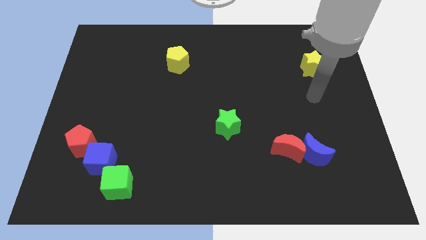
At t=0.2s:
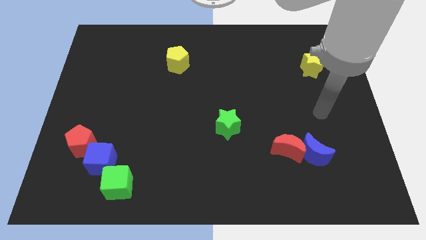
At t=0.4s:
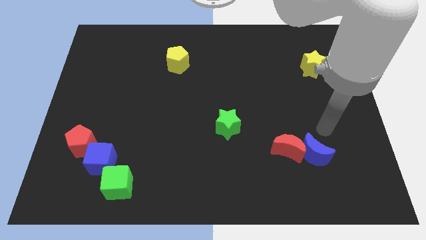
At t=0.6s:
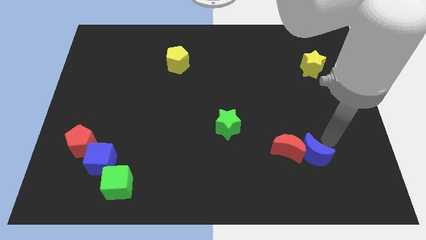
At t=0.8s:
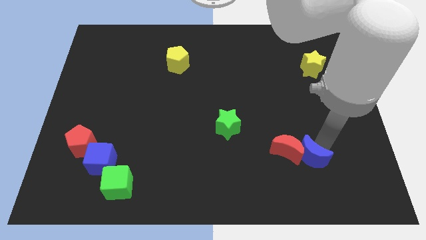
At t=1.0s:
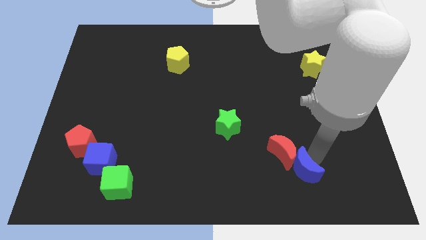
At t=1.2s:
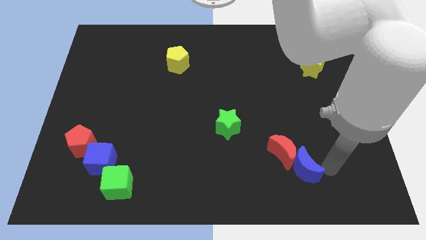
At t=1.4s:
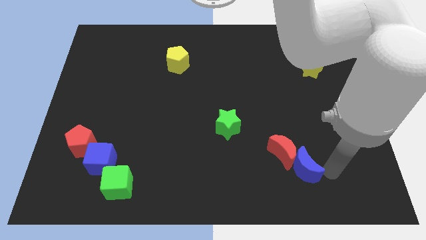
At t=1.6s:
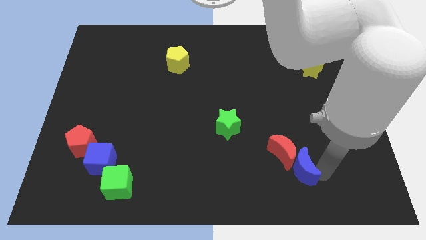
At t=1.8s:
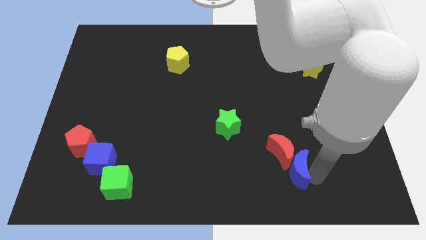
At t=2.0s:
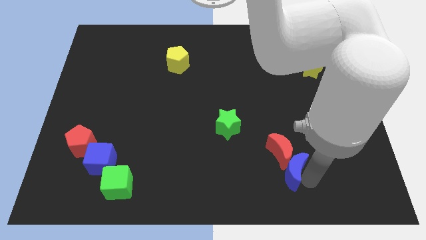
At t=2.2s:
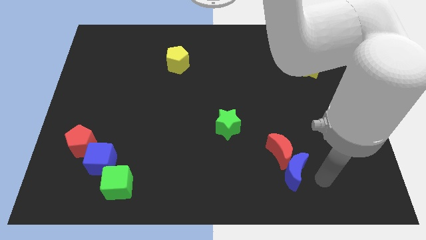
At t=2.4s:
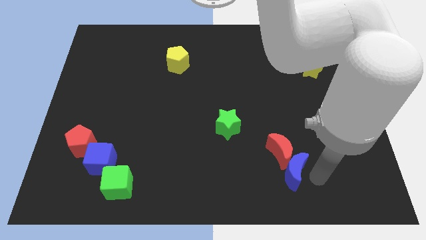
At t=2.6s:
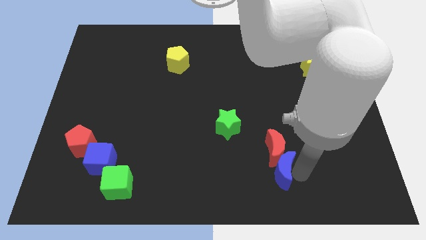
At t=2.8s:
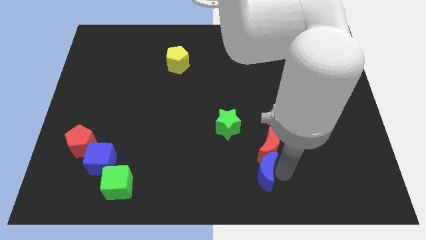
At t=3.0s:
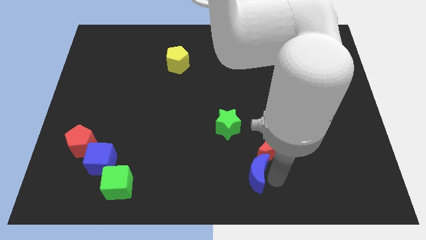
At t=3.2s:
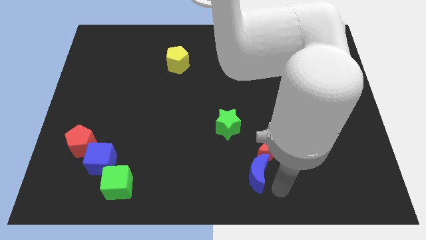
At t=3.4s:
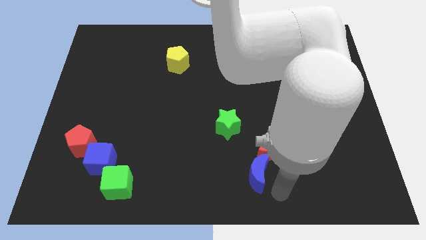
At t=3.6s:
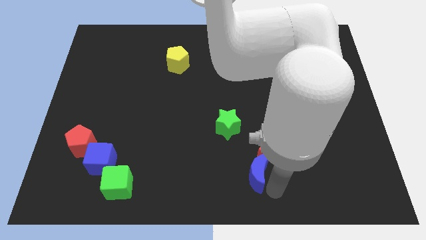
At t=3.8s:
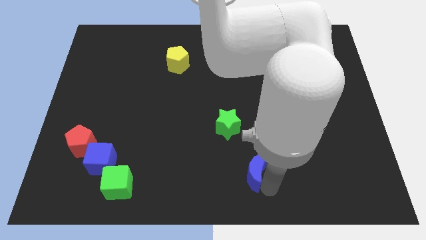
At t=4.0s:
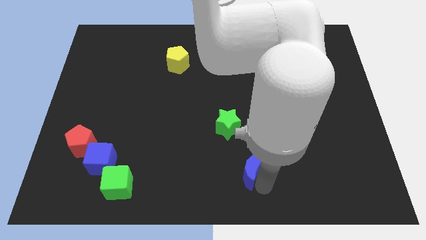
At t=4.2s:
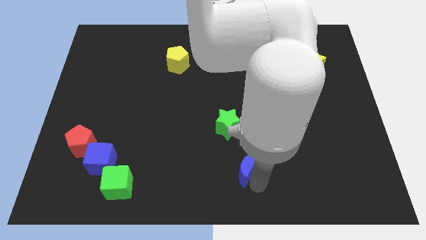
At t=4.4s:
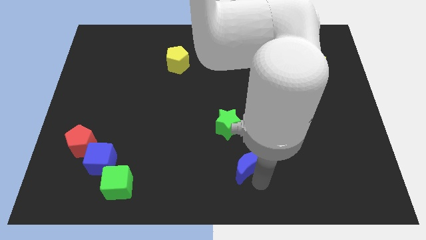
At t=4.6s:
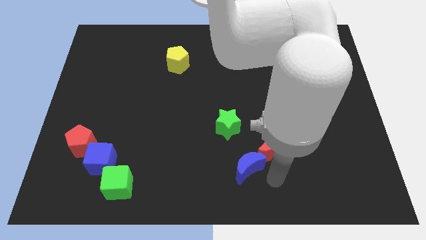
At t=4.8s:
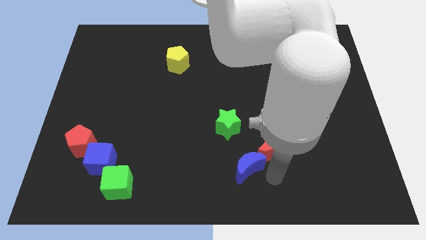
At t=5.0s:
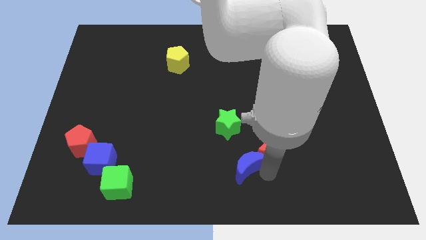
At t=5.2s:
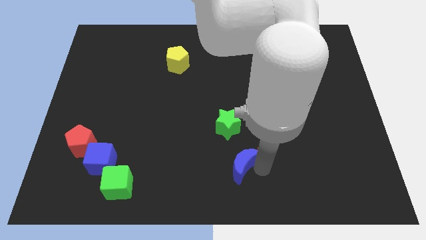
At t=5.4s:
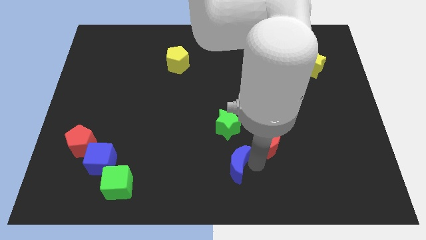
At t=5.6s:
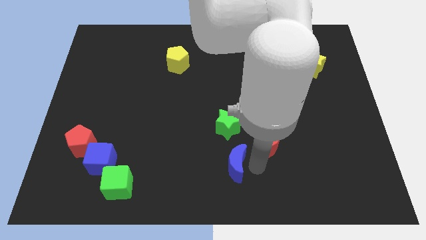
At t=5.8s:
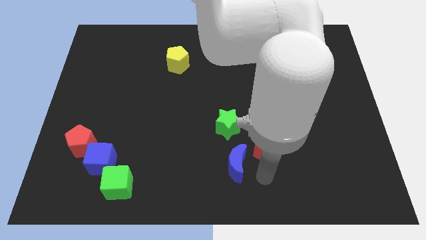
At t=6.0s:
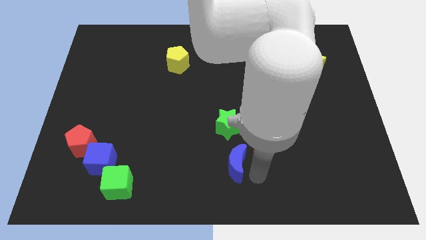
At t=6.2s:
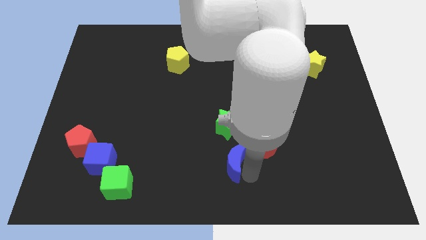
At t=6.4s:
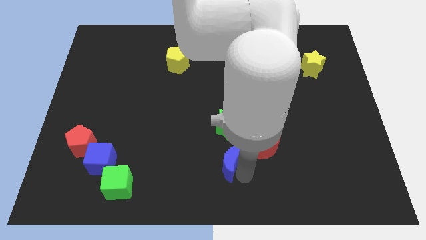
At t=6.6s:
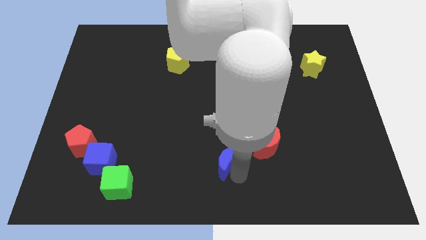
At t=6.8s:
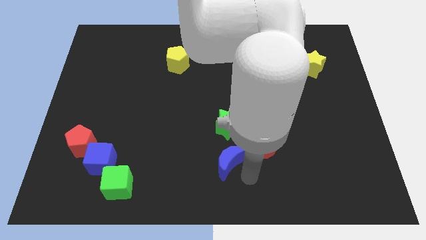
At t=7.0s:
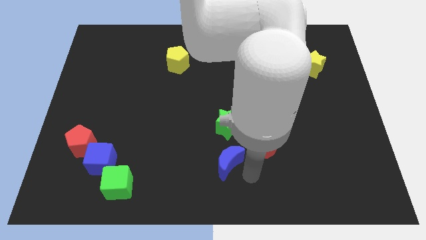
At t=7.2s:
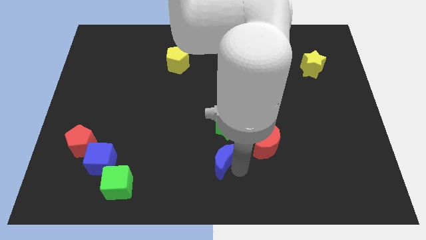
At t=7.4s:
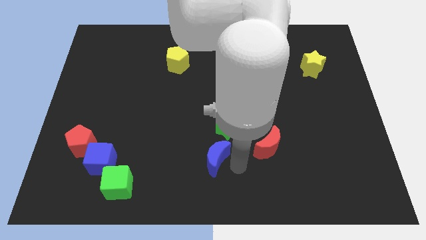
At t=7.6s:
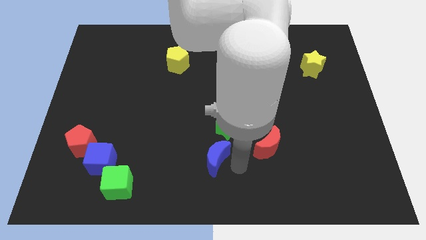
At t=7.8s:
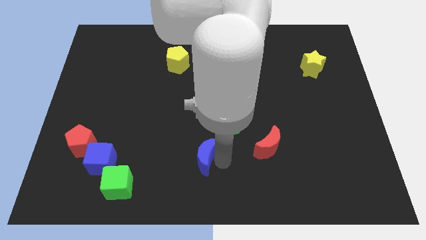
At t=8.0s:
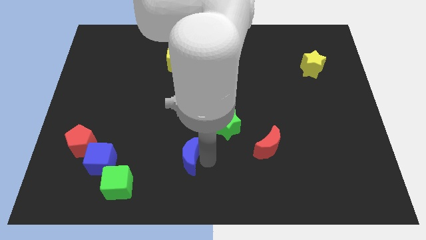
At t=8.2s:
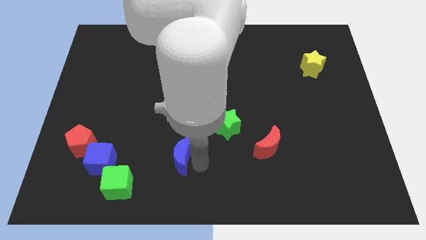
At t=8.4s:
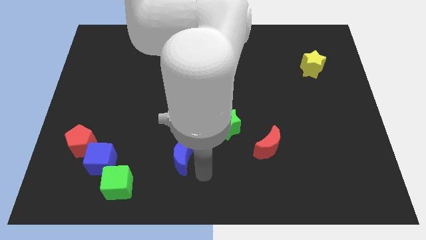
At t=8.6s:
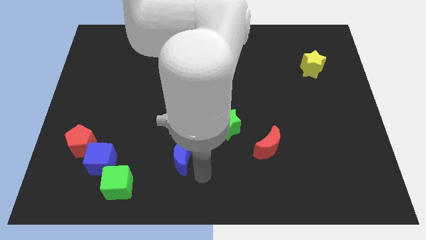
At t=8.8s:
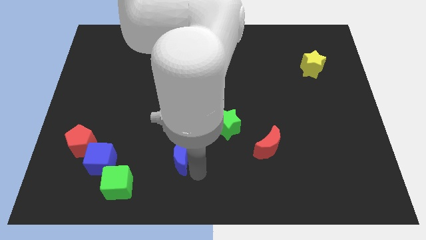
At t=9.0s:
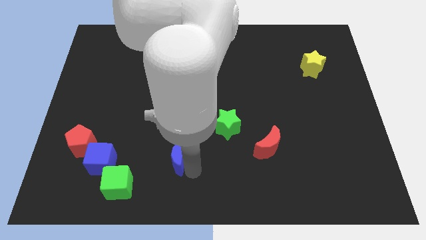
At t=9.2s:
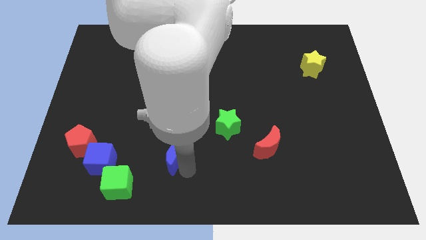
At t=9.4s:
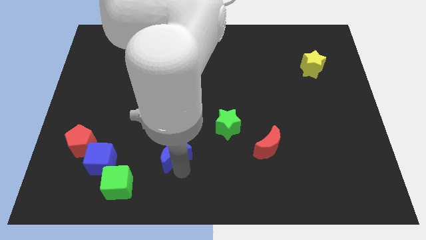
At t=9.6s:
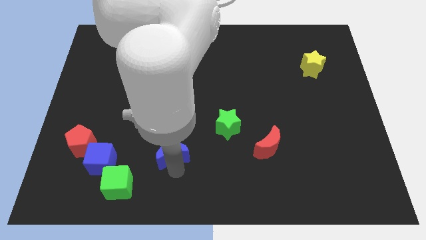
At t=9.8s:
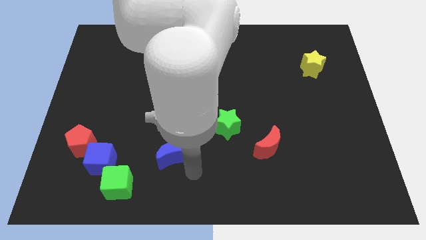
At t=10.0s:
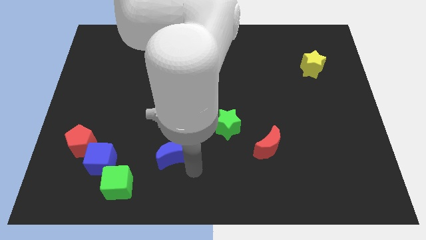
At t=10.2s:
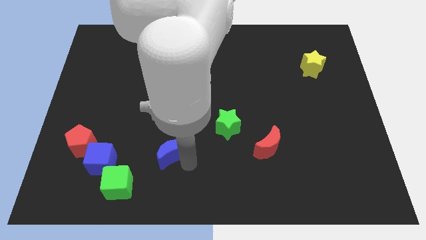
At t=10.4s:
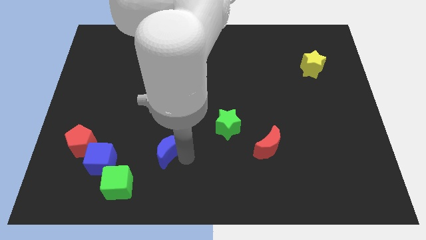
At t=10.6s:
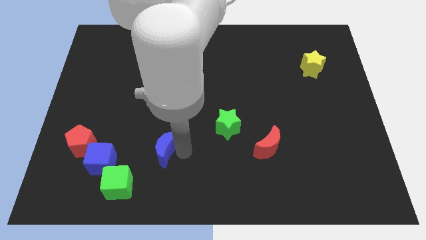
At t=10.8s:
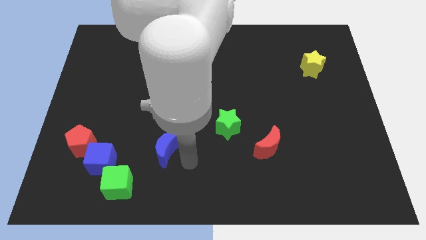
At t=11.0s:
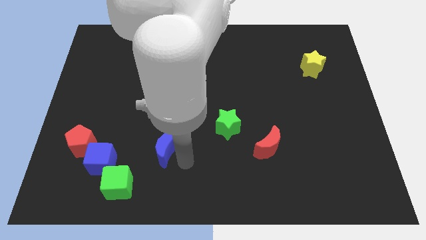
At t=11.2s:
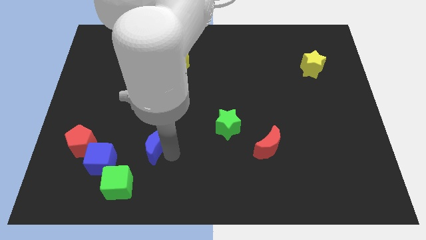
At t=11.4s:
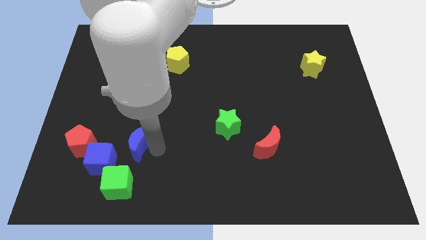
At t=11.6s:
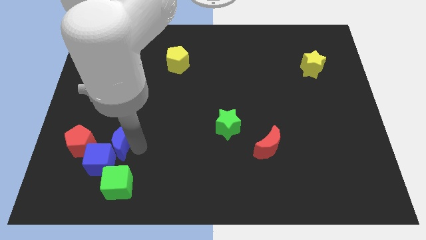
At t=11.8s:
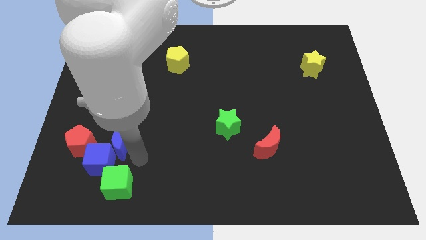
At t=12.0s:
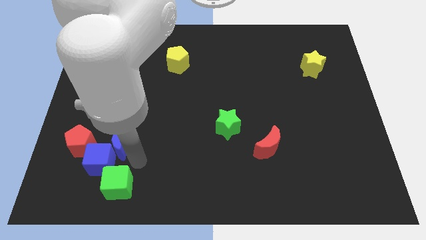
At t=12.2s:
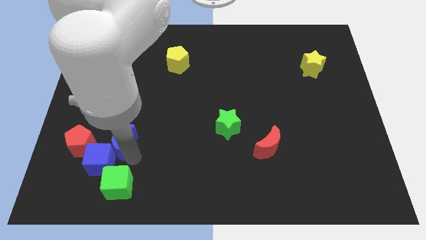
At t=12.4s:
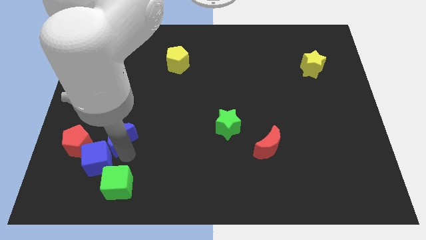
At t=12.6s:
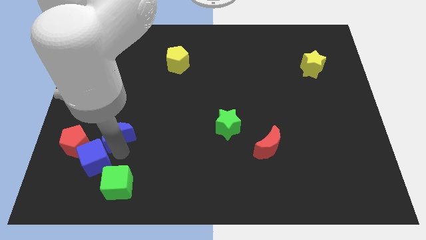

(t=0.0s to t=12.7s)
push the blue moon diagonally up and to the right of the red pentagon

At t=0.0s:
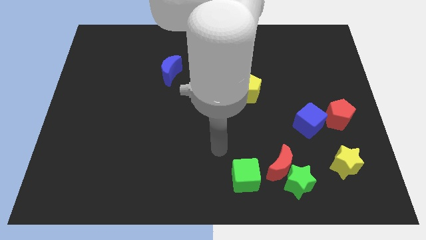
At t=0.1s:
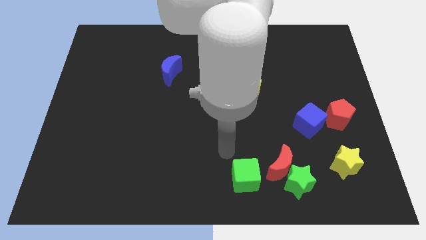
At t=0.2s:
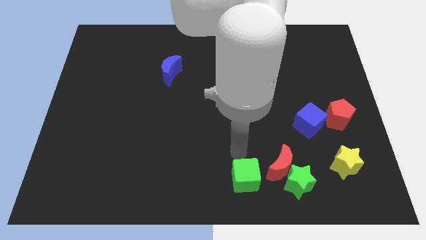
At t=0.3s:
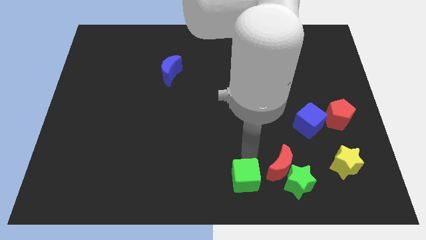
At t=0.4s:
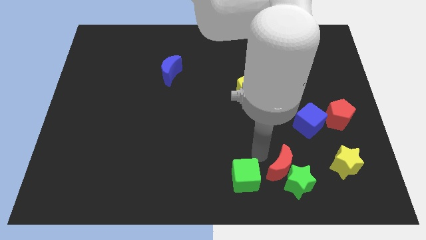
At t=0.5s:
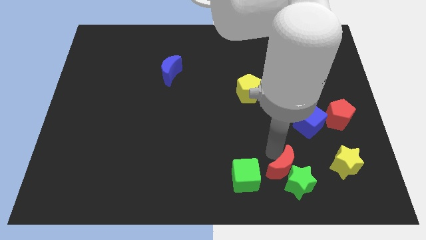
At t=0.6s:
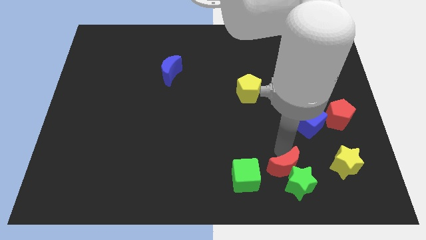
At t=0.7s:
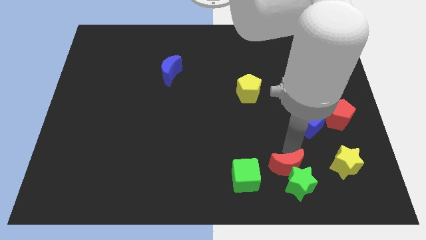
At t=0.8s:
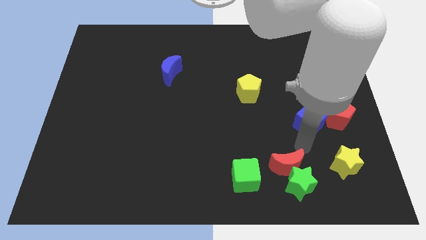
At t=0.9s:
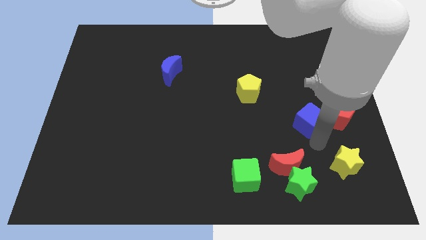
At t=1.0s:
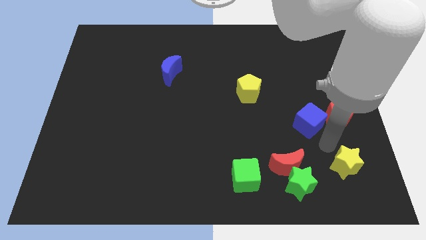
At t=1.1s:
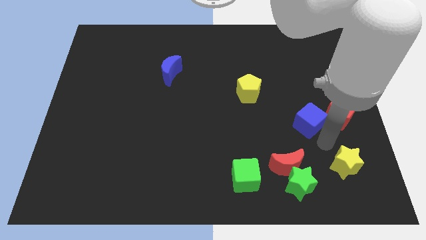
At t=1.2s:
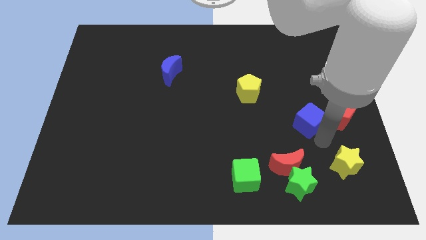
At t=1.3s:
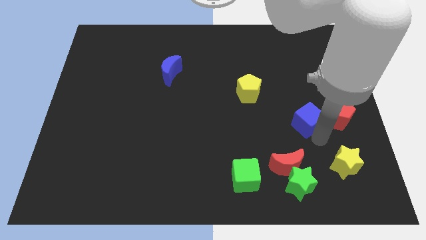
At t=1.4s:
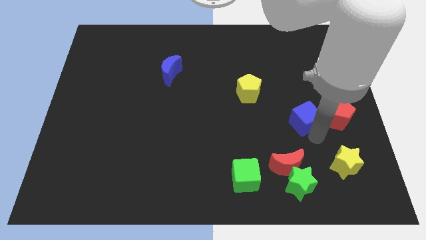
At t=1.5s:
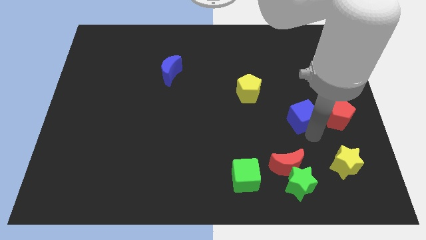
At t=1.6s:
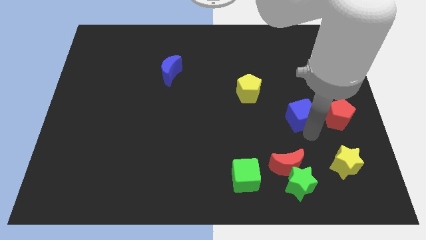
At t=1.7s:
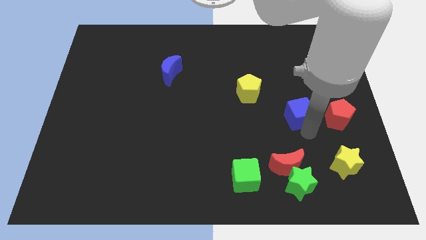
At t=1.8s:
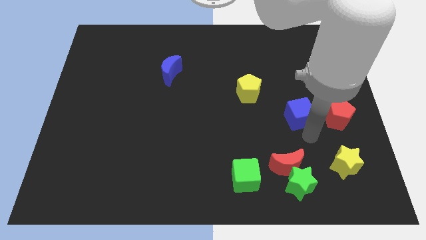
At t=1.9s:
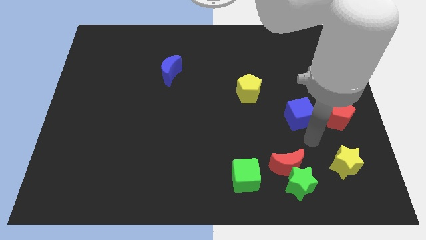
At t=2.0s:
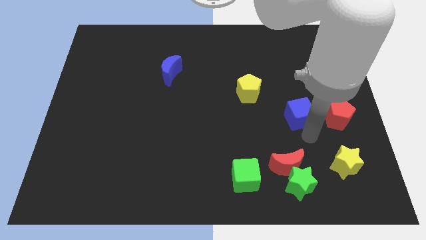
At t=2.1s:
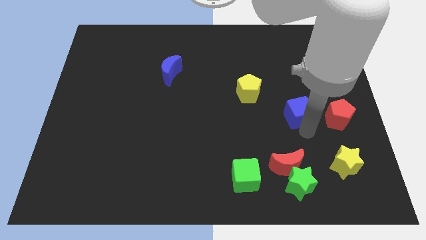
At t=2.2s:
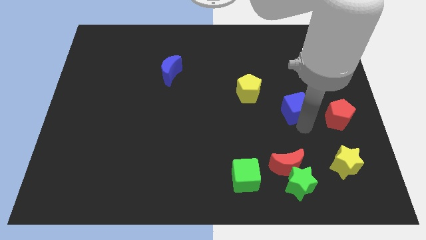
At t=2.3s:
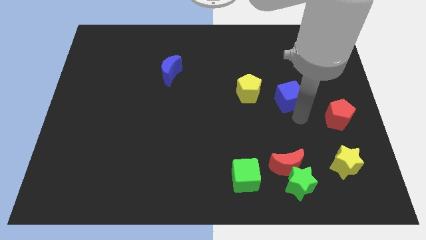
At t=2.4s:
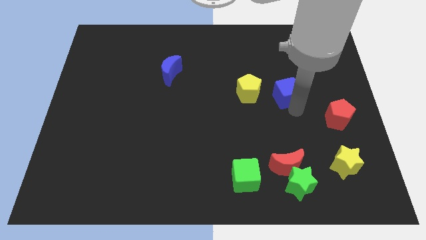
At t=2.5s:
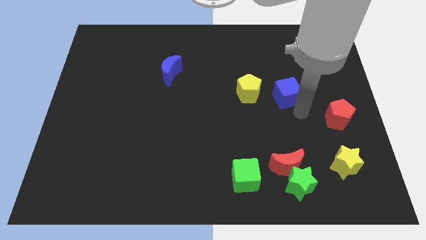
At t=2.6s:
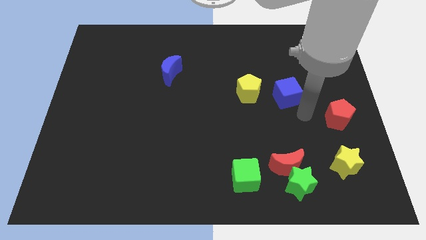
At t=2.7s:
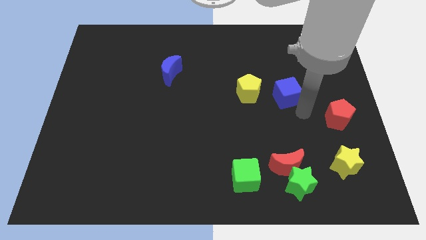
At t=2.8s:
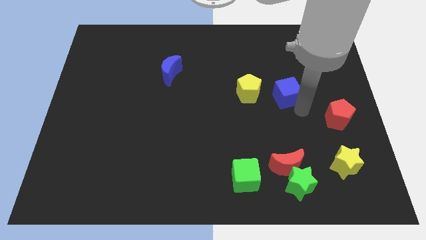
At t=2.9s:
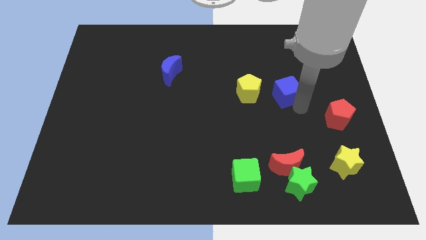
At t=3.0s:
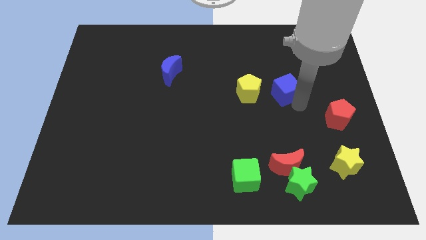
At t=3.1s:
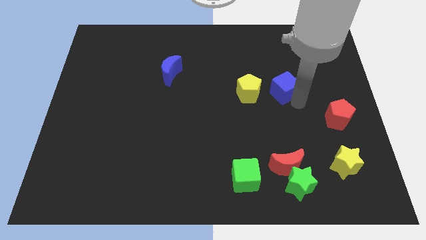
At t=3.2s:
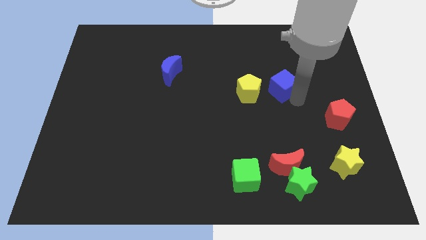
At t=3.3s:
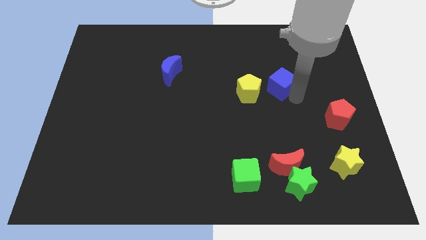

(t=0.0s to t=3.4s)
put the blue cube to the top right side of the yellow pentagon
